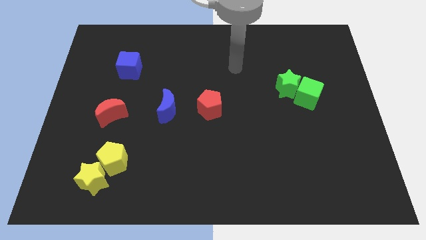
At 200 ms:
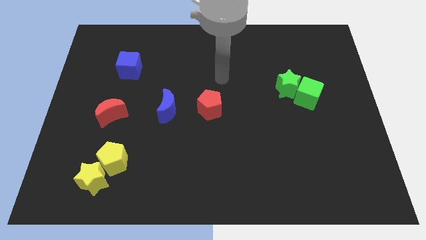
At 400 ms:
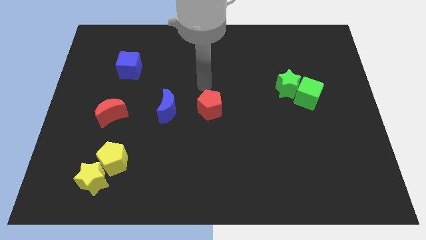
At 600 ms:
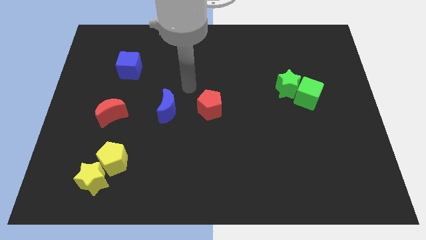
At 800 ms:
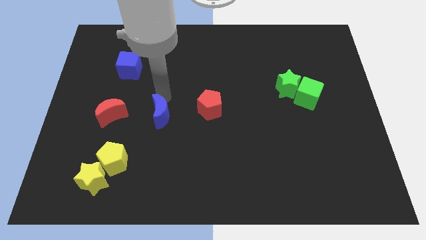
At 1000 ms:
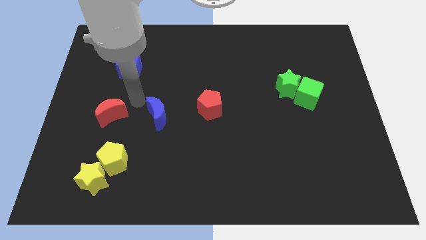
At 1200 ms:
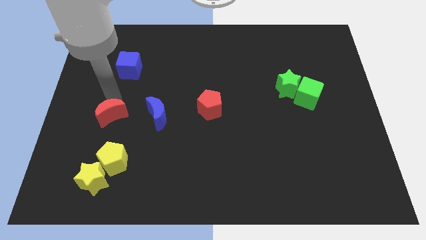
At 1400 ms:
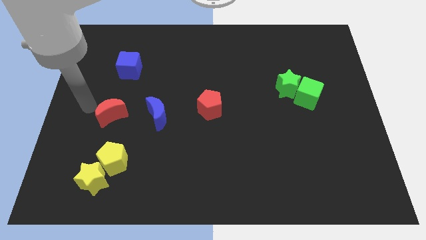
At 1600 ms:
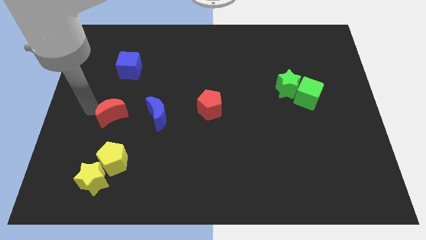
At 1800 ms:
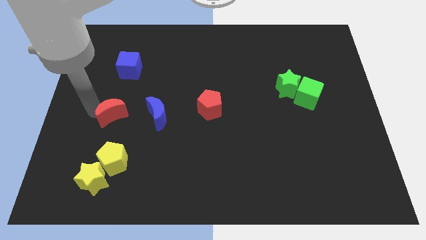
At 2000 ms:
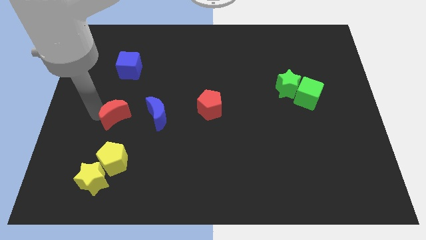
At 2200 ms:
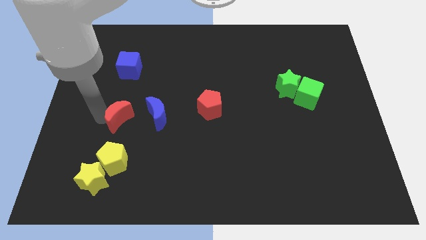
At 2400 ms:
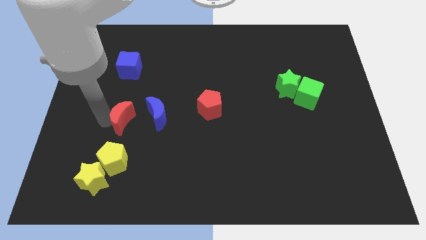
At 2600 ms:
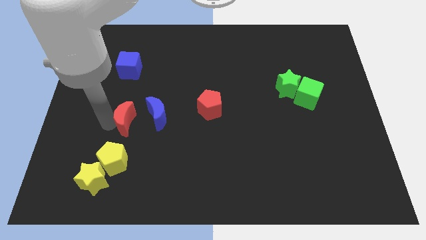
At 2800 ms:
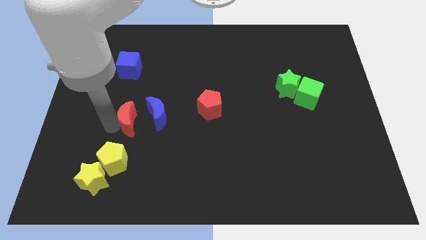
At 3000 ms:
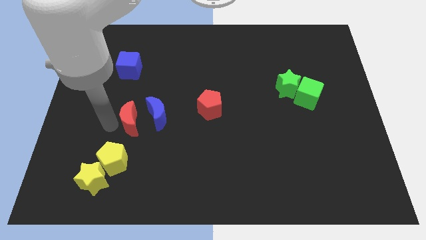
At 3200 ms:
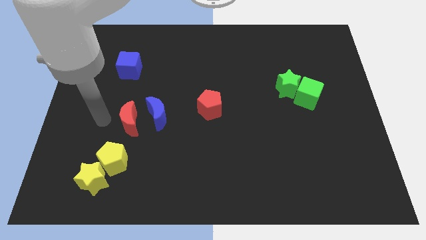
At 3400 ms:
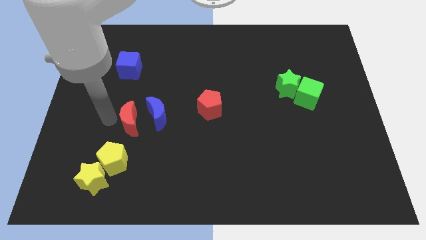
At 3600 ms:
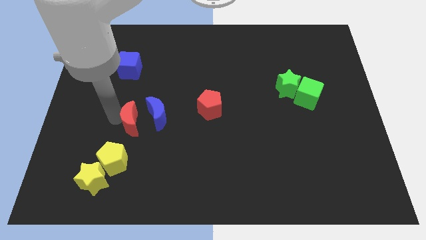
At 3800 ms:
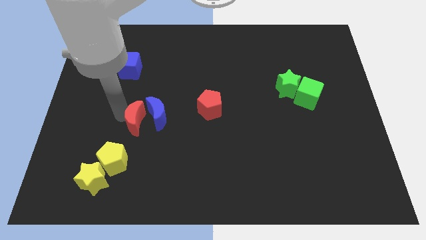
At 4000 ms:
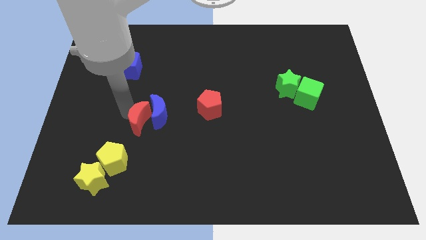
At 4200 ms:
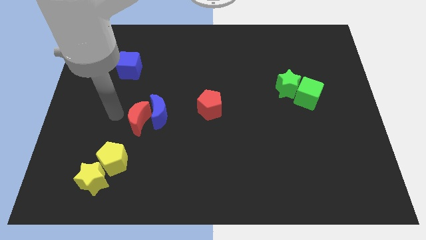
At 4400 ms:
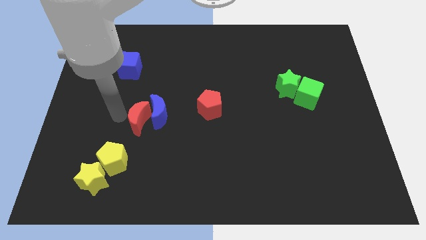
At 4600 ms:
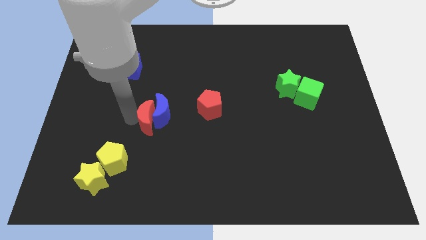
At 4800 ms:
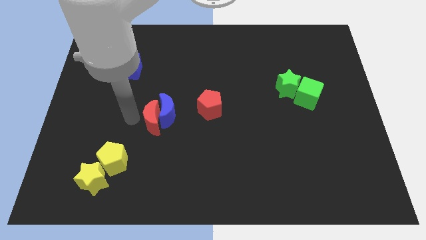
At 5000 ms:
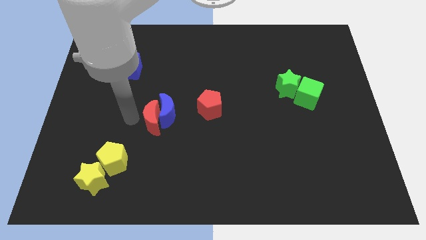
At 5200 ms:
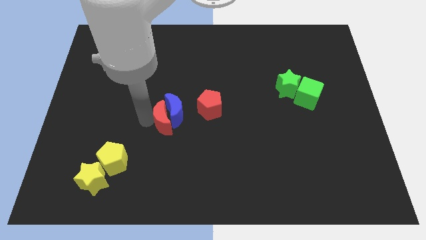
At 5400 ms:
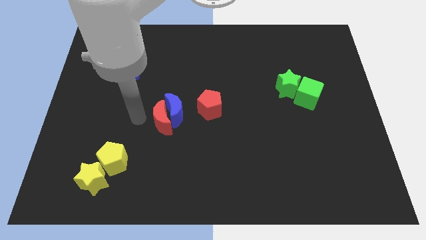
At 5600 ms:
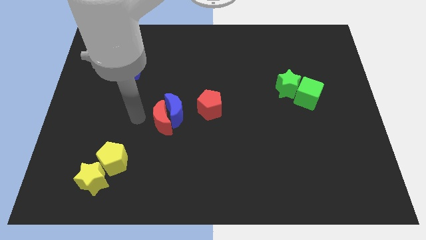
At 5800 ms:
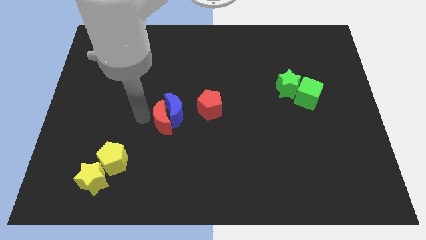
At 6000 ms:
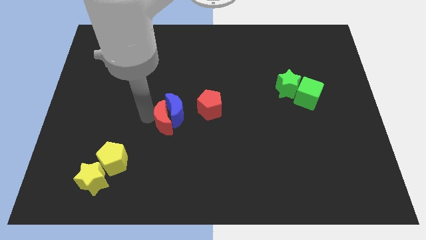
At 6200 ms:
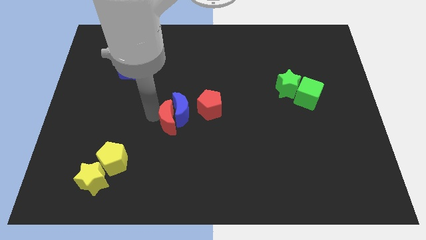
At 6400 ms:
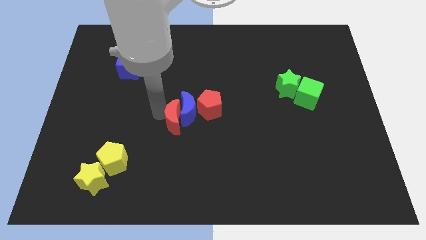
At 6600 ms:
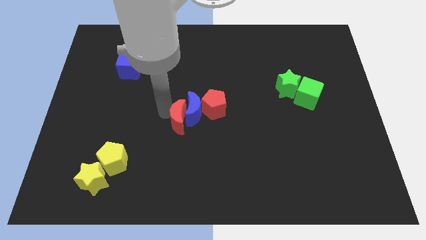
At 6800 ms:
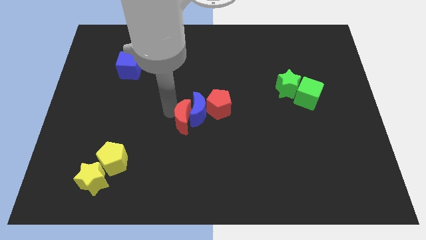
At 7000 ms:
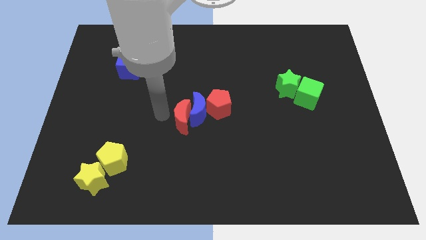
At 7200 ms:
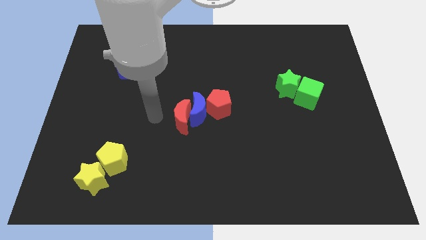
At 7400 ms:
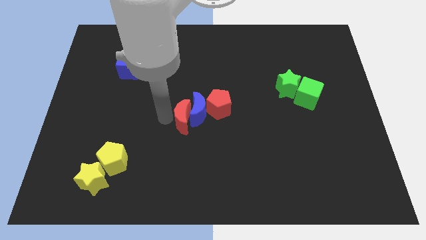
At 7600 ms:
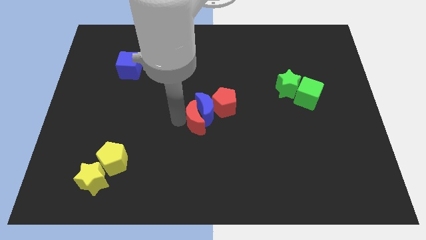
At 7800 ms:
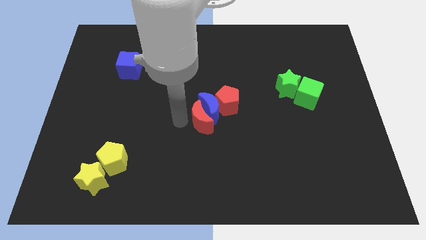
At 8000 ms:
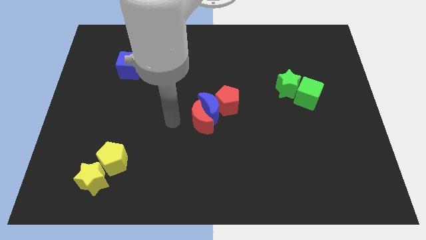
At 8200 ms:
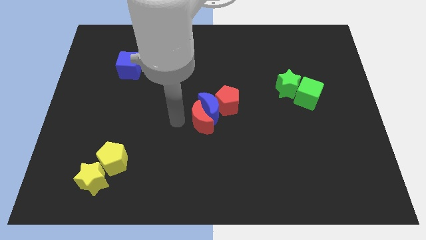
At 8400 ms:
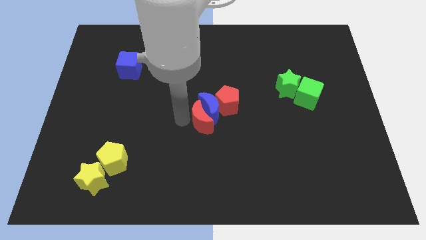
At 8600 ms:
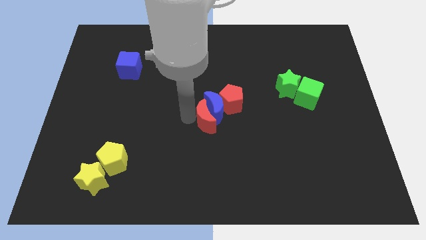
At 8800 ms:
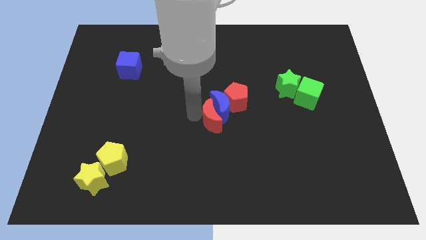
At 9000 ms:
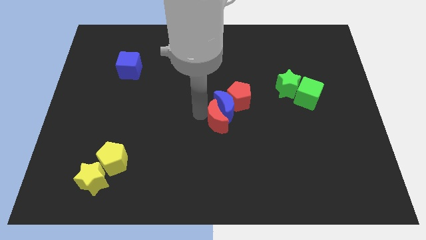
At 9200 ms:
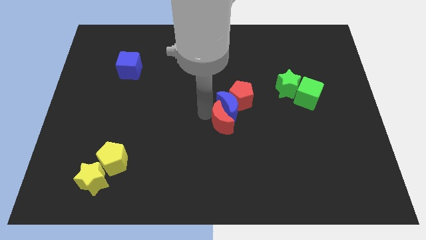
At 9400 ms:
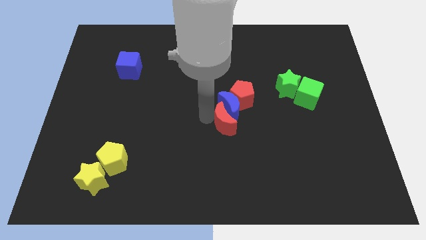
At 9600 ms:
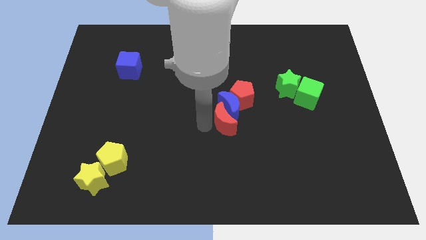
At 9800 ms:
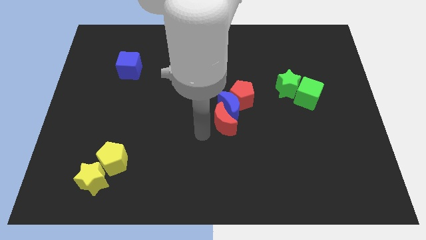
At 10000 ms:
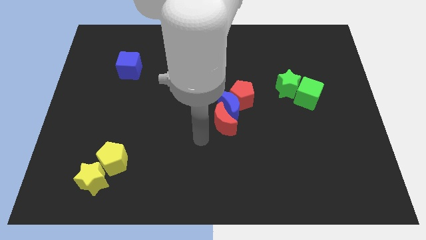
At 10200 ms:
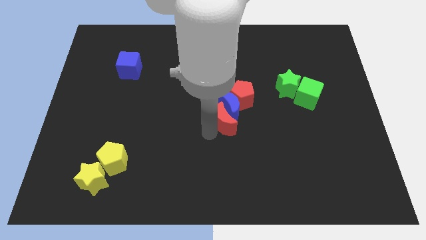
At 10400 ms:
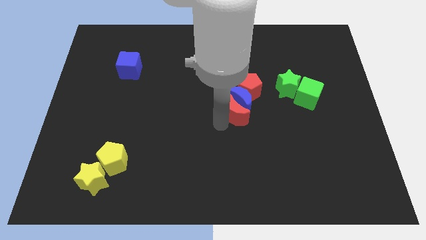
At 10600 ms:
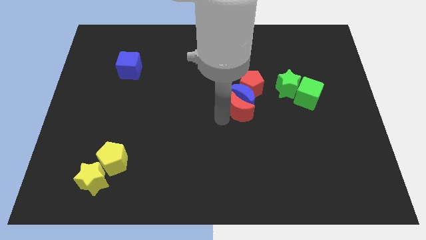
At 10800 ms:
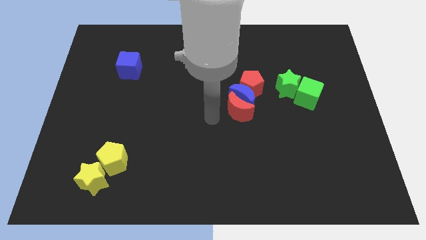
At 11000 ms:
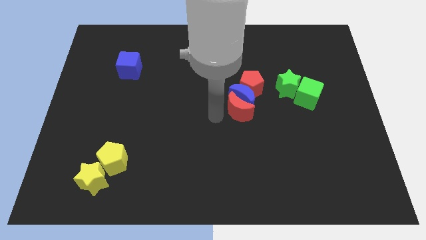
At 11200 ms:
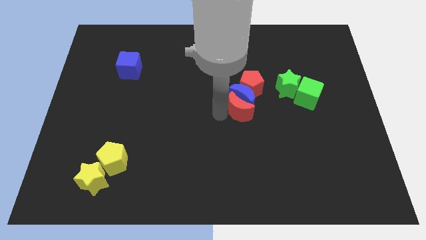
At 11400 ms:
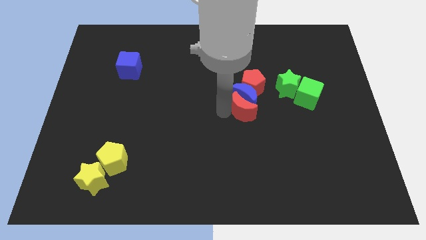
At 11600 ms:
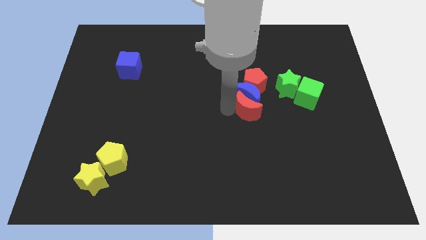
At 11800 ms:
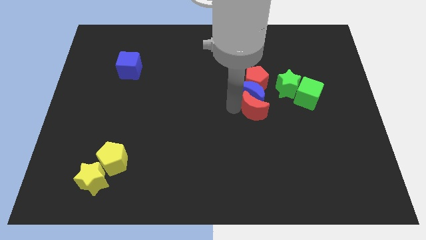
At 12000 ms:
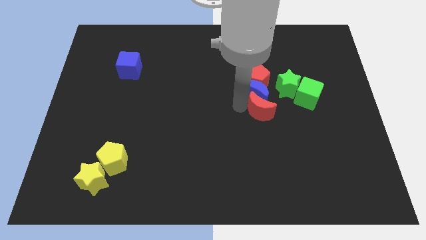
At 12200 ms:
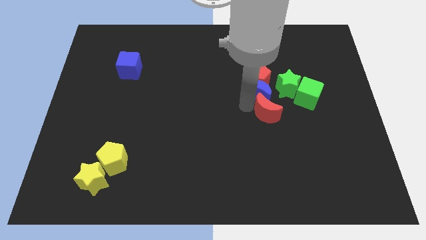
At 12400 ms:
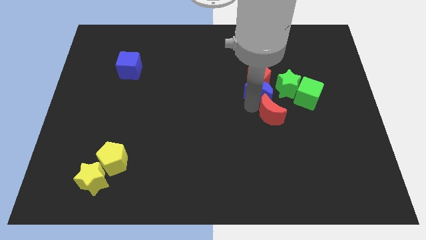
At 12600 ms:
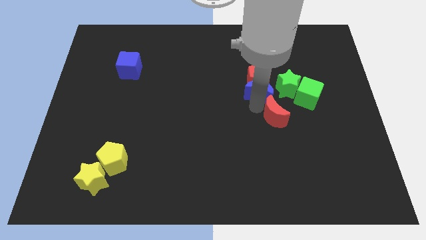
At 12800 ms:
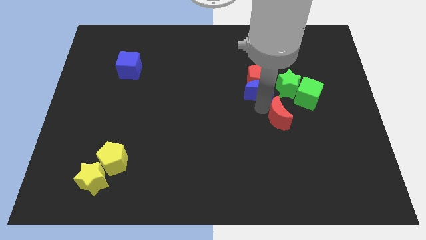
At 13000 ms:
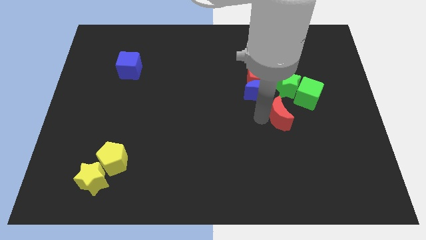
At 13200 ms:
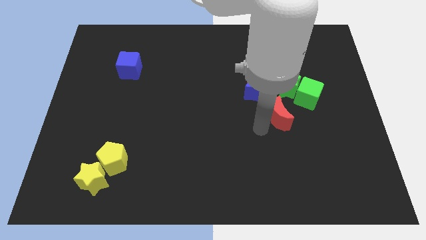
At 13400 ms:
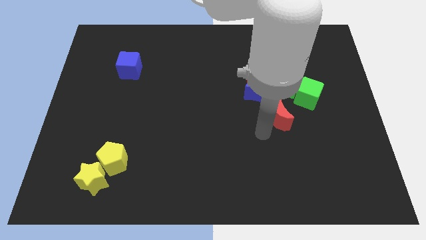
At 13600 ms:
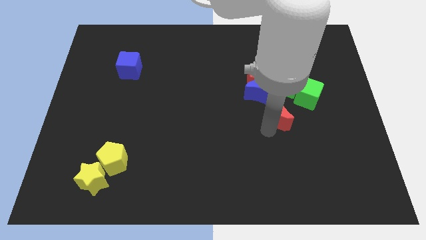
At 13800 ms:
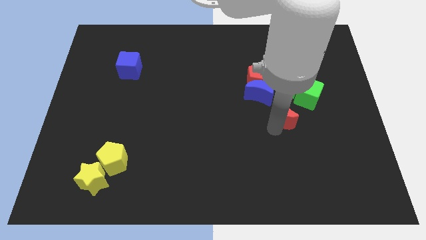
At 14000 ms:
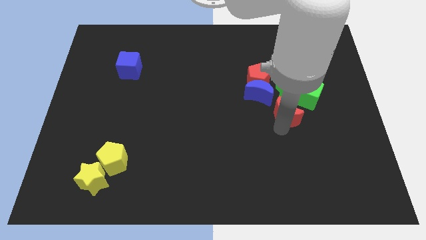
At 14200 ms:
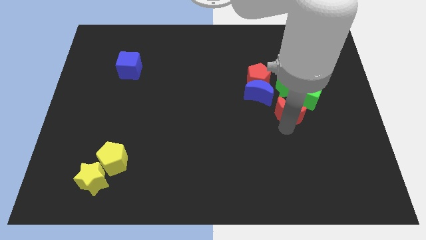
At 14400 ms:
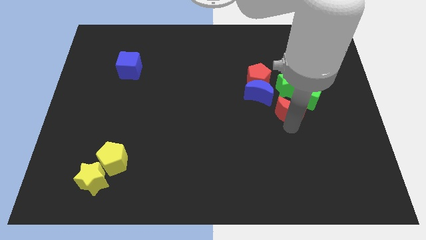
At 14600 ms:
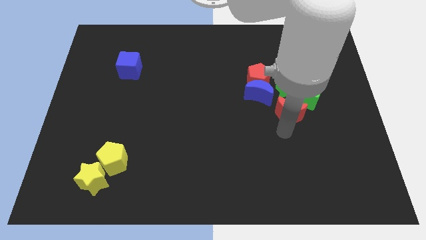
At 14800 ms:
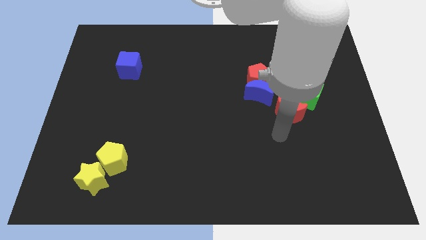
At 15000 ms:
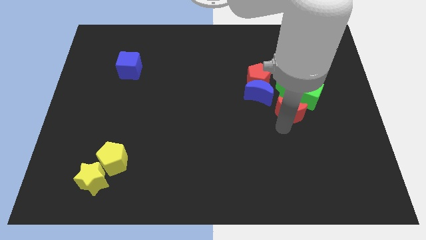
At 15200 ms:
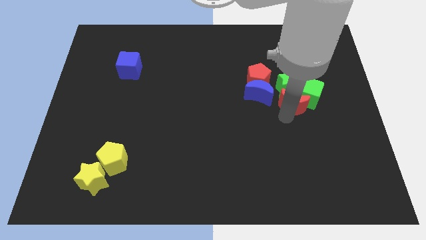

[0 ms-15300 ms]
slide the red moon next to the green cube
